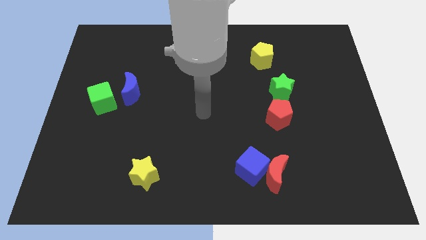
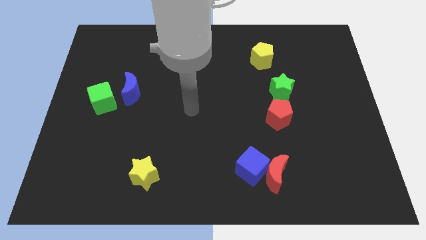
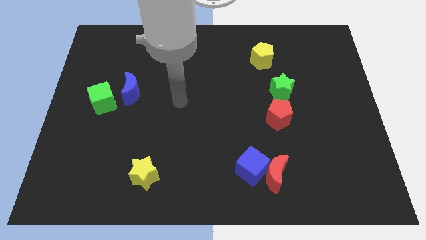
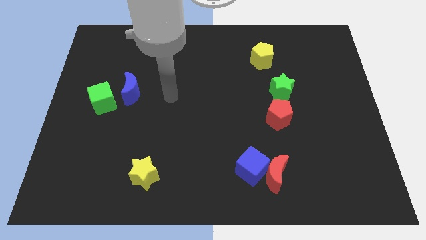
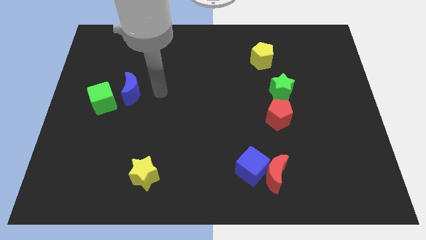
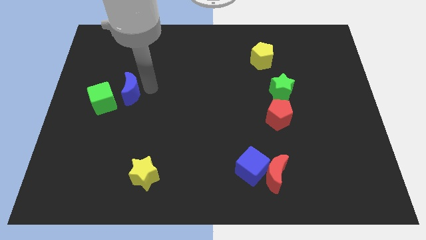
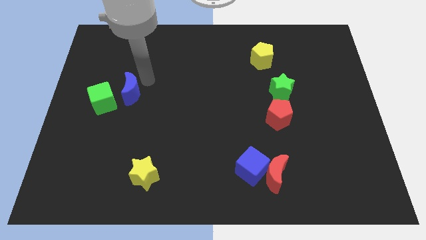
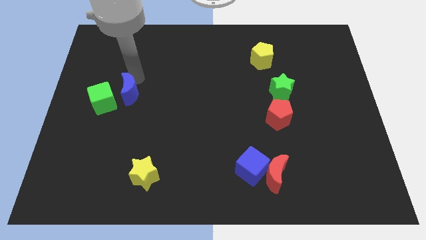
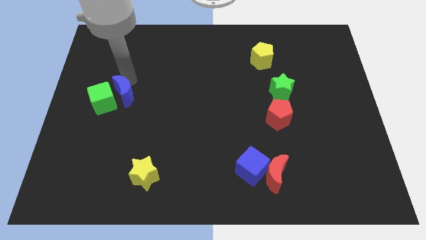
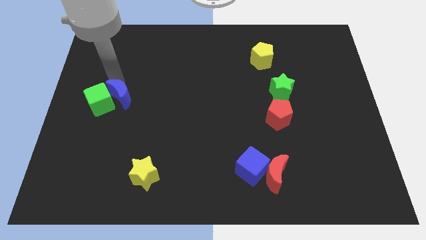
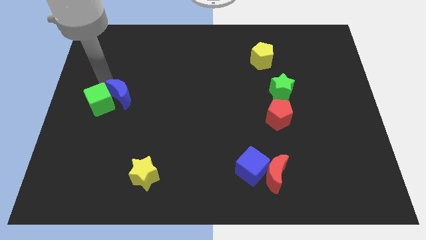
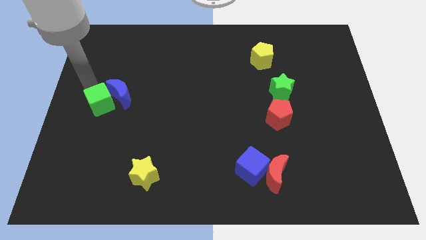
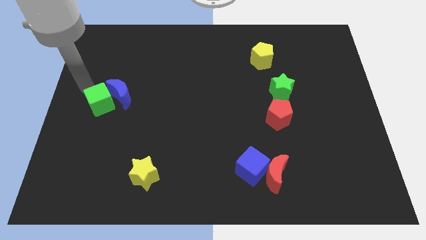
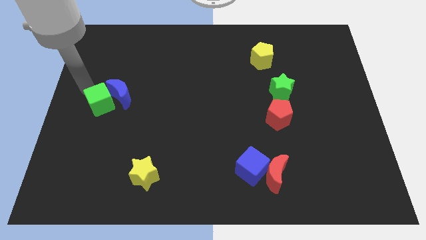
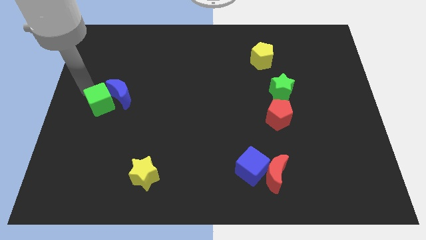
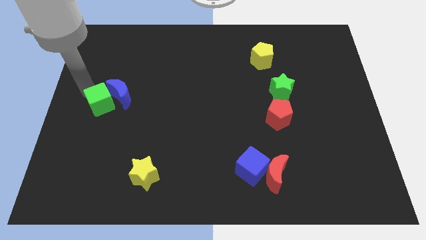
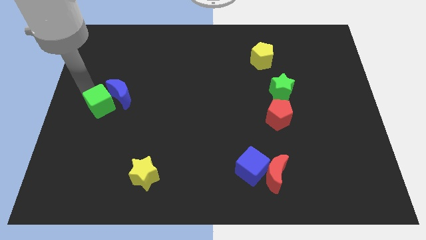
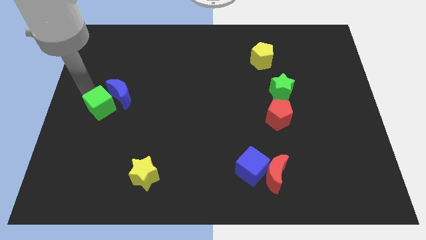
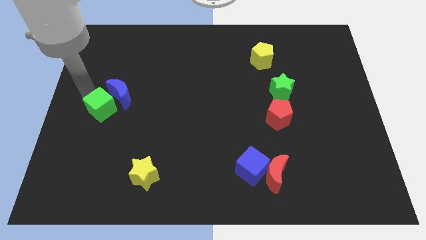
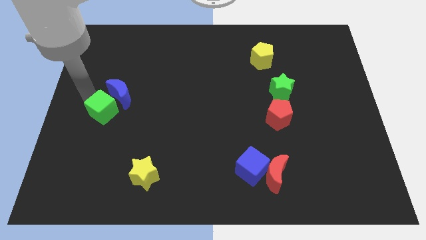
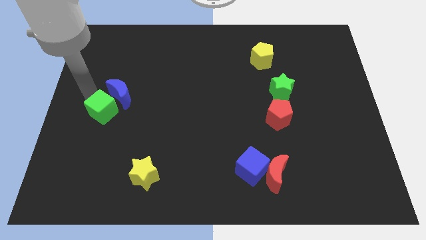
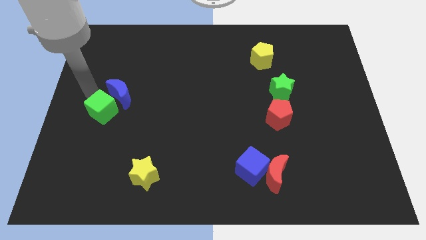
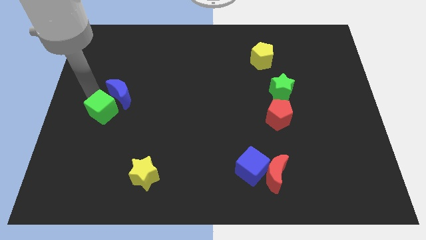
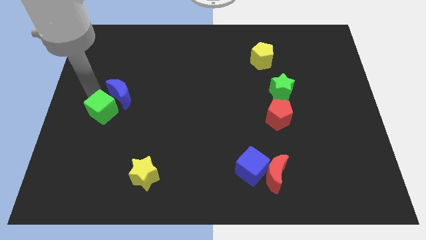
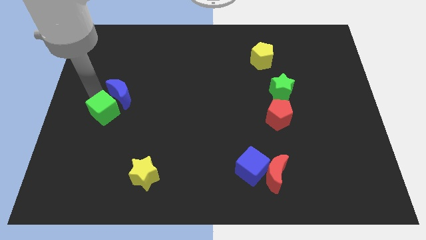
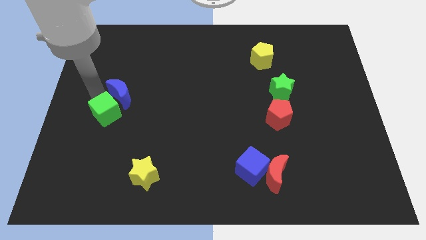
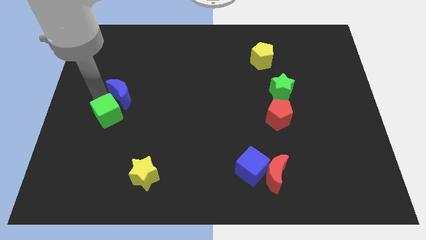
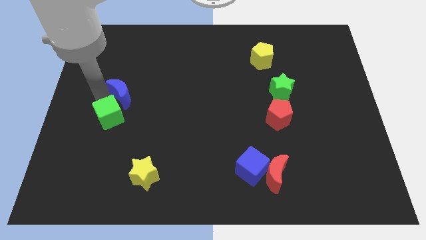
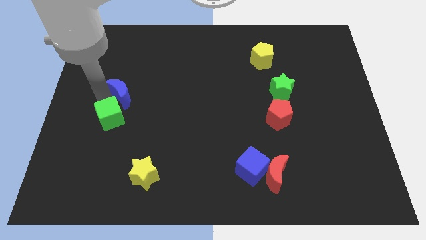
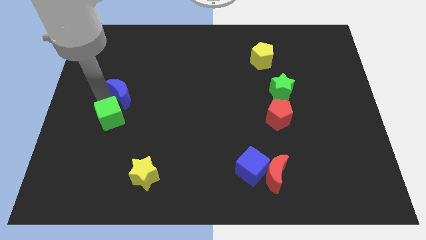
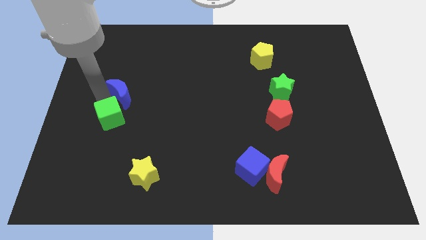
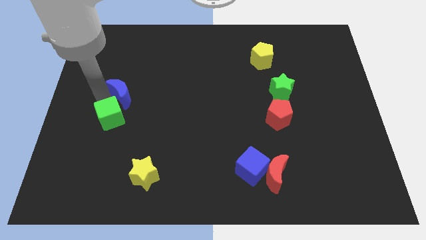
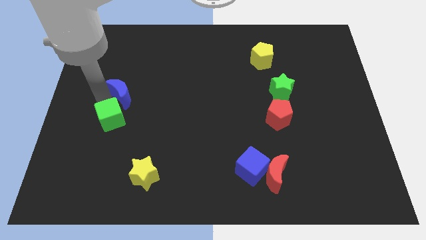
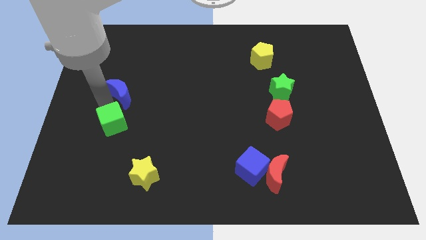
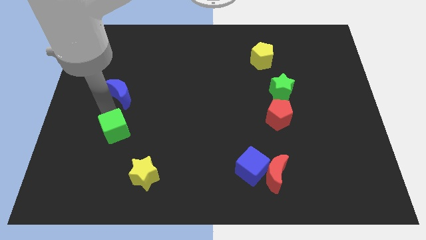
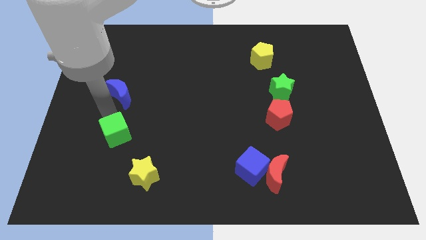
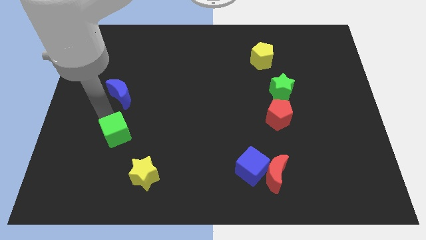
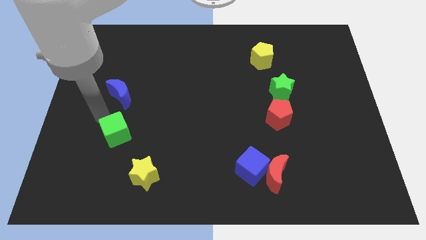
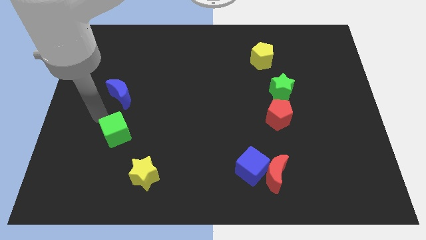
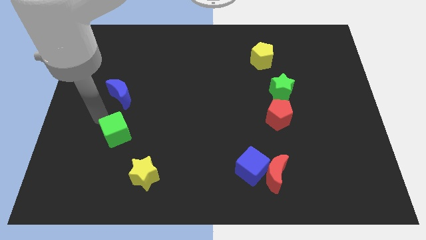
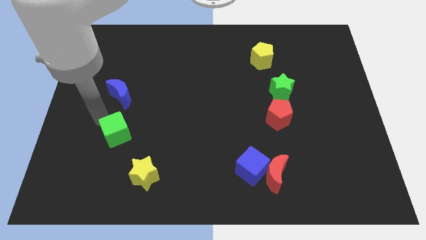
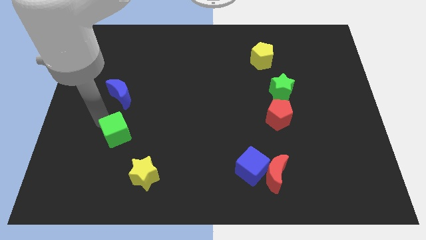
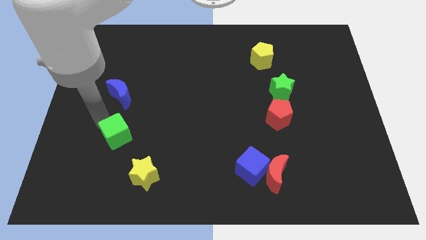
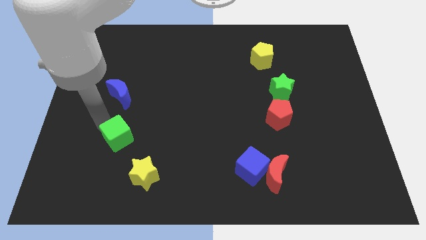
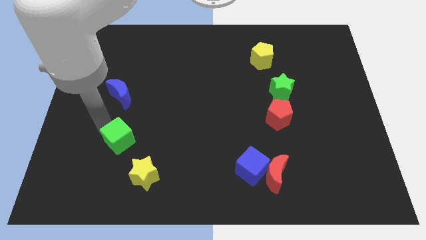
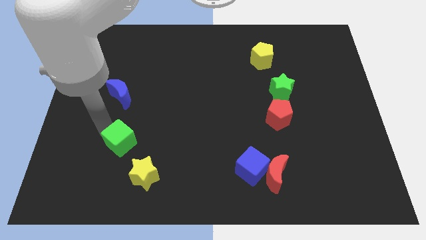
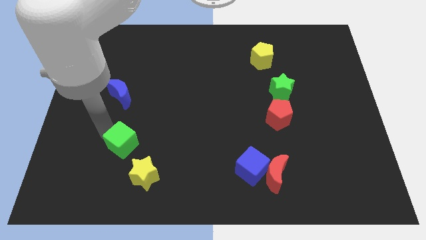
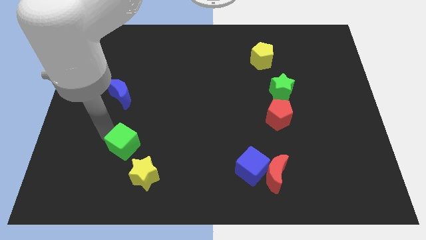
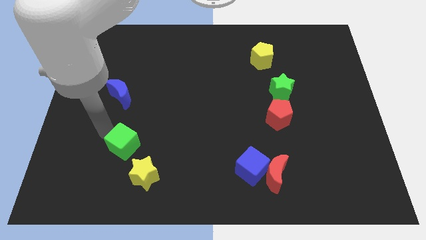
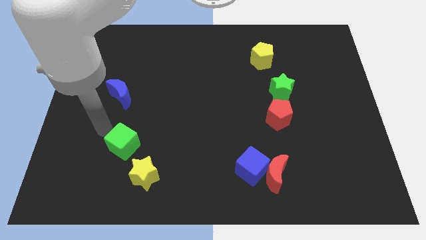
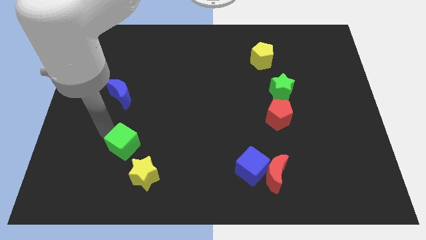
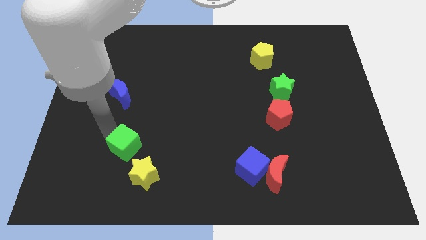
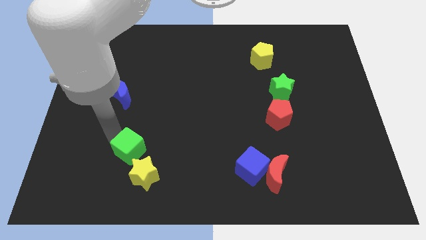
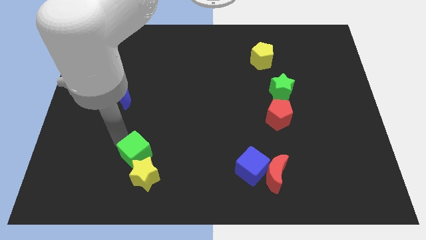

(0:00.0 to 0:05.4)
move the green cube to the yellow star

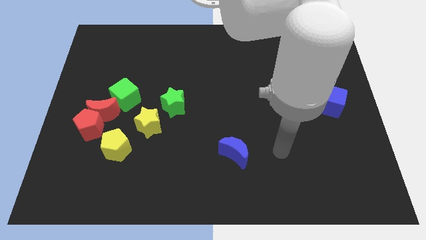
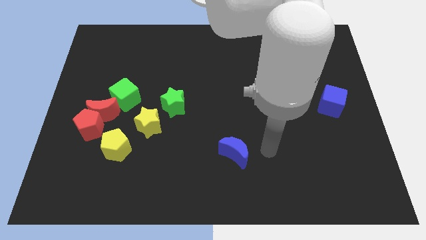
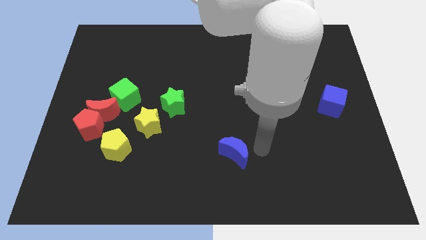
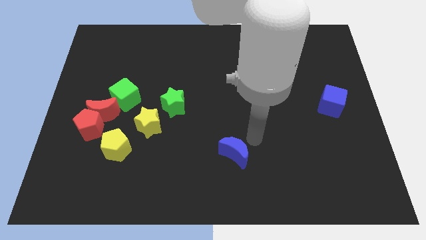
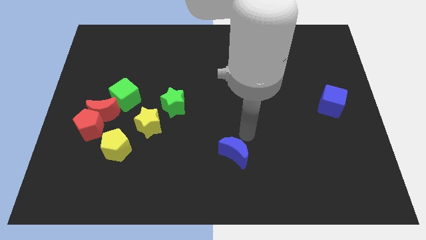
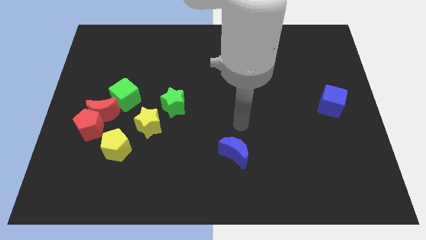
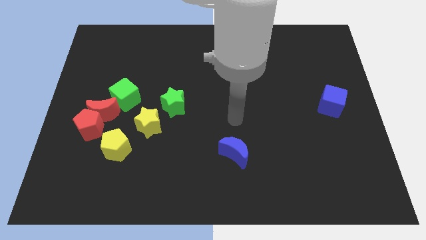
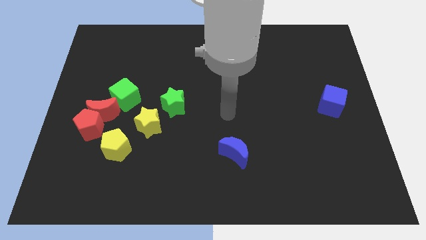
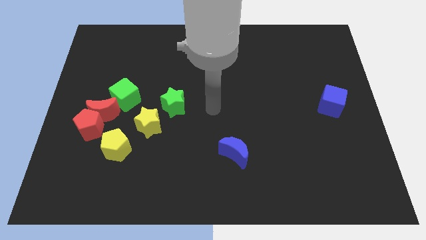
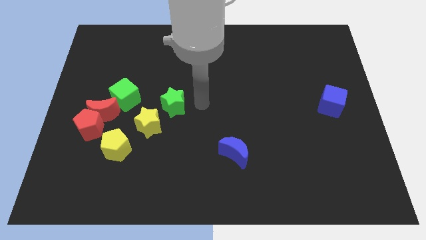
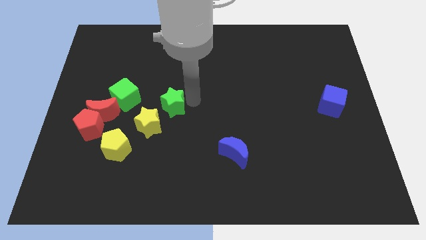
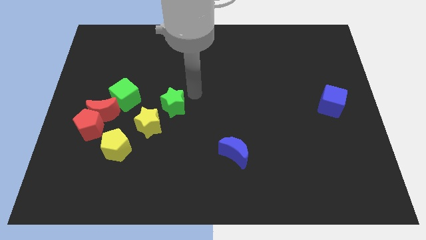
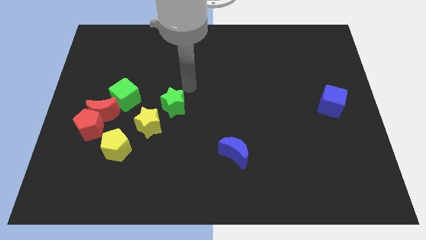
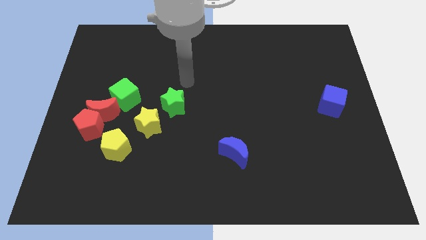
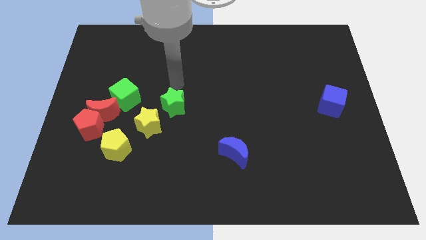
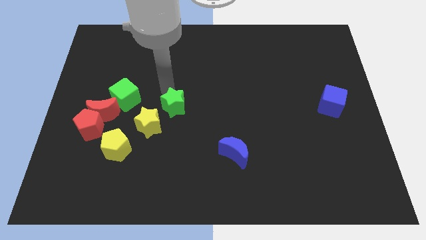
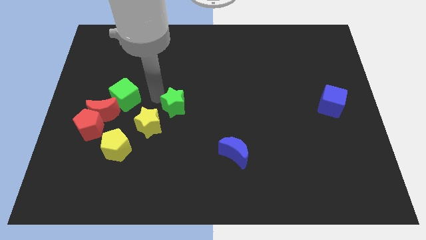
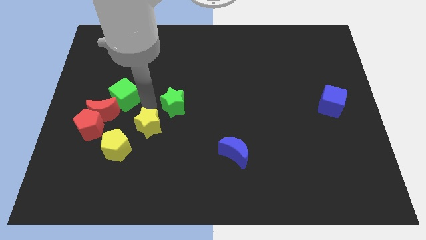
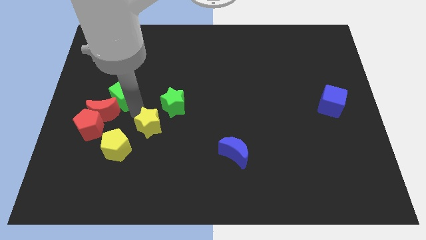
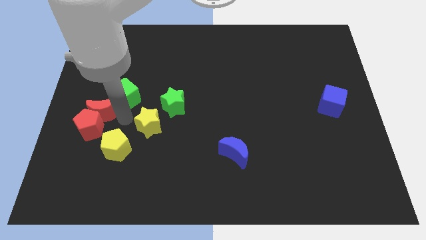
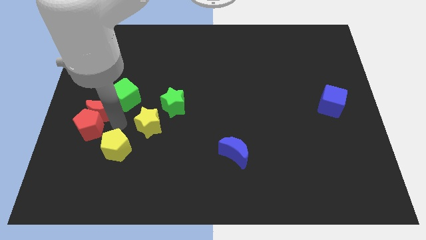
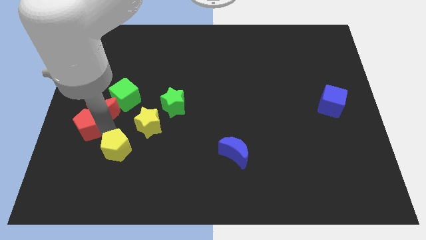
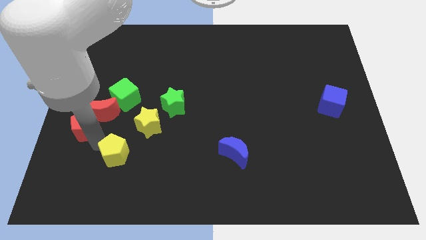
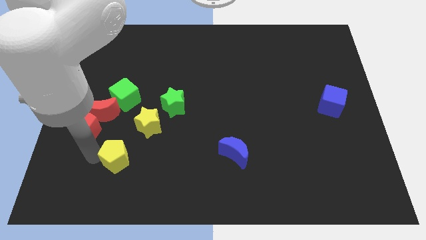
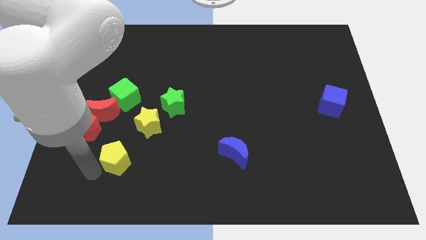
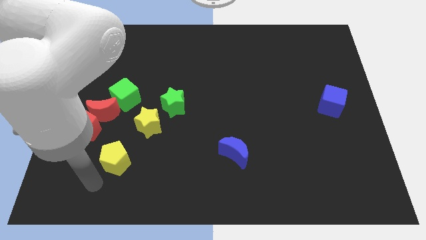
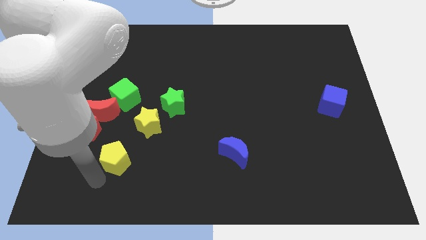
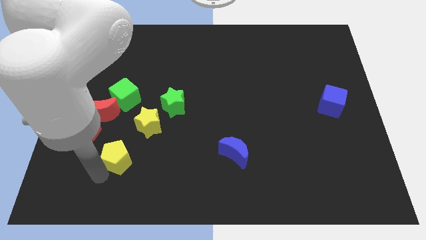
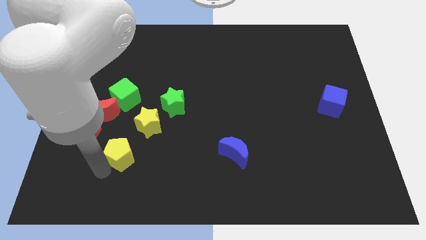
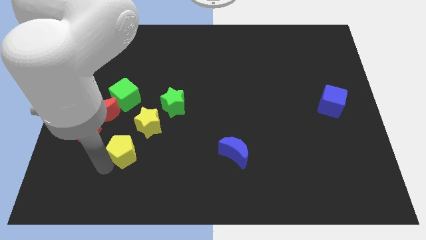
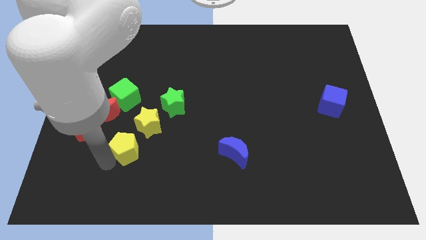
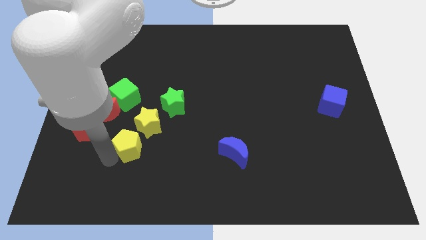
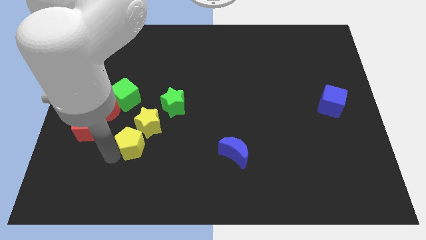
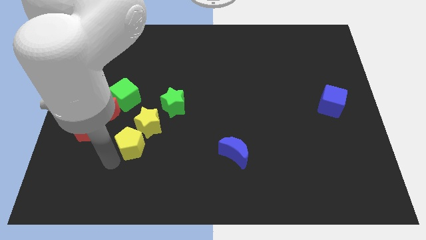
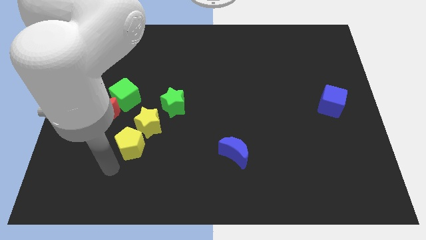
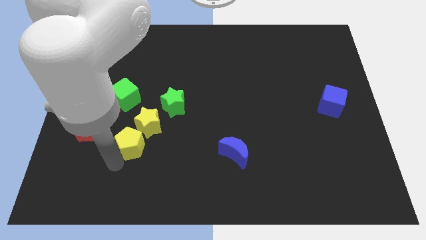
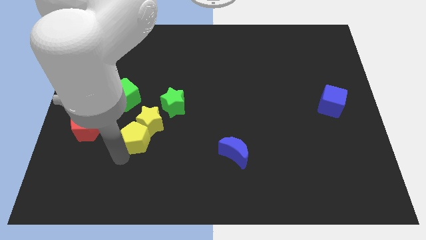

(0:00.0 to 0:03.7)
move the yellow pentagon towards the yellow star
